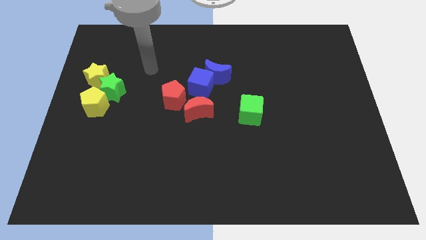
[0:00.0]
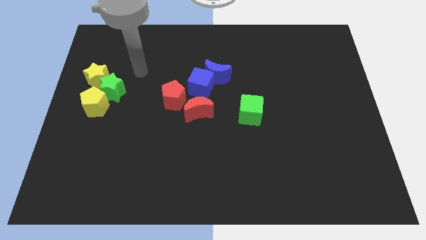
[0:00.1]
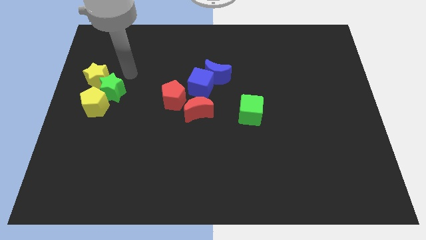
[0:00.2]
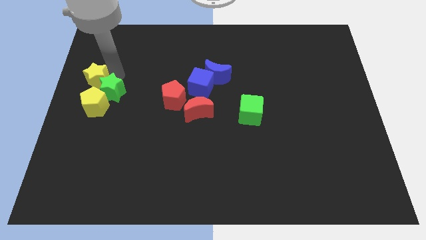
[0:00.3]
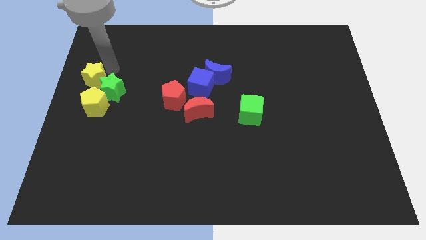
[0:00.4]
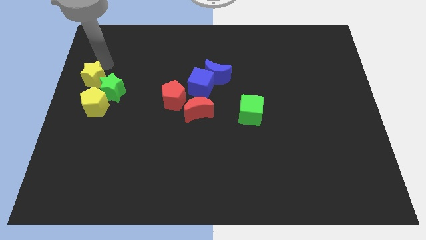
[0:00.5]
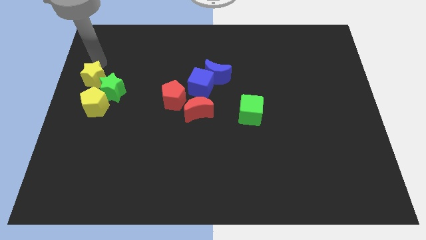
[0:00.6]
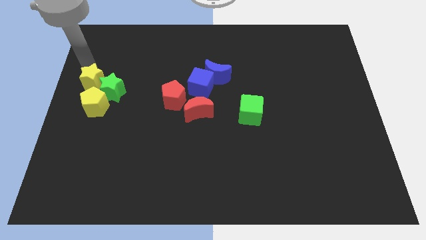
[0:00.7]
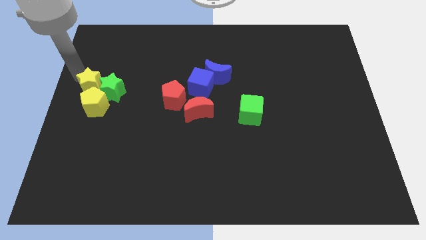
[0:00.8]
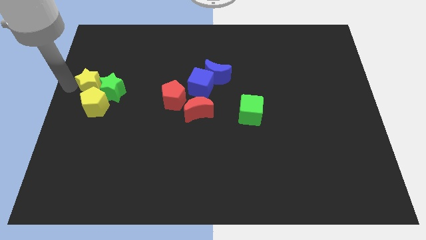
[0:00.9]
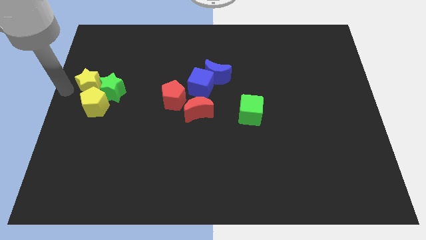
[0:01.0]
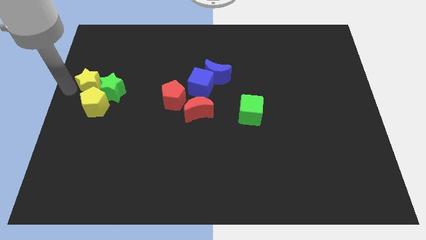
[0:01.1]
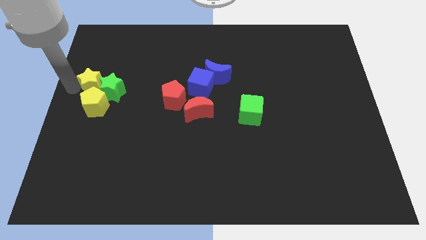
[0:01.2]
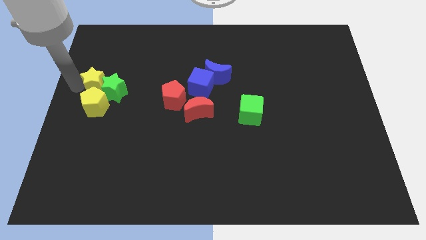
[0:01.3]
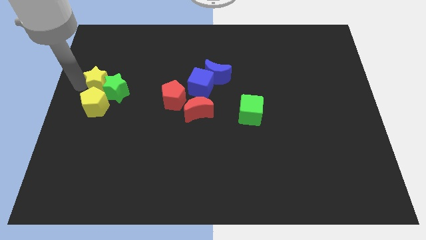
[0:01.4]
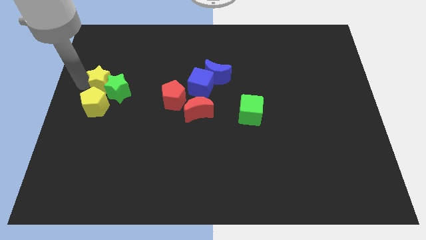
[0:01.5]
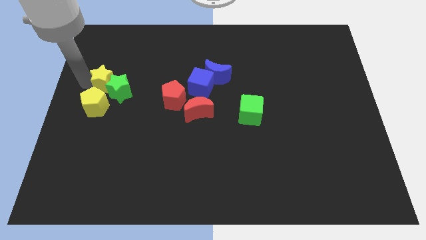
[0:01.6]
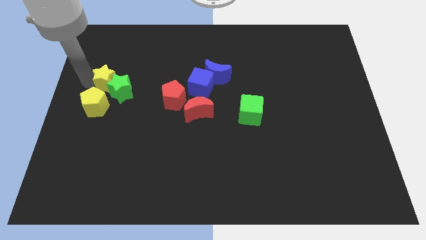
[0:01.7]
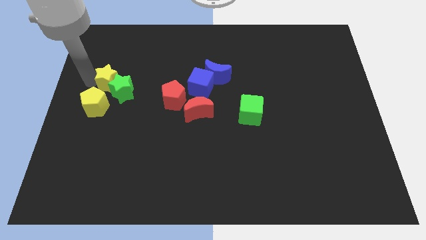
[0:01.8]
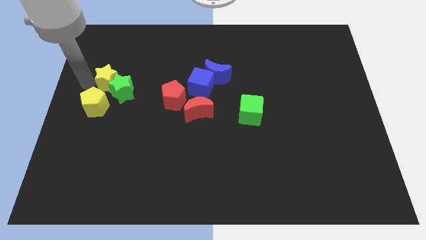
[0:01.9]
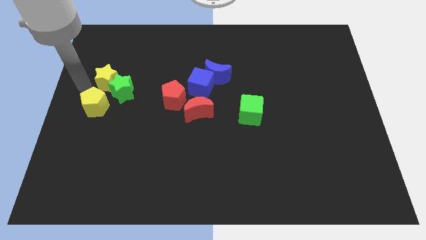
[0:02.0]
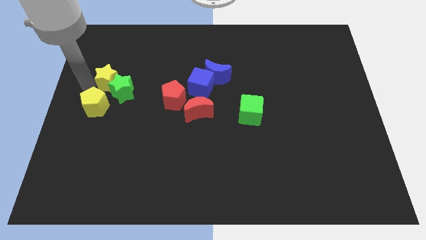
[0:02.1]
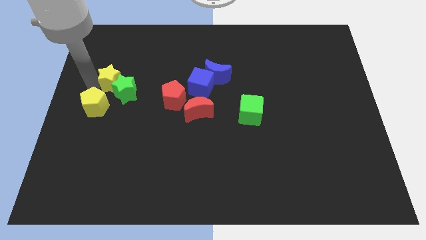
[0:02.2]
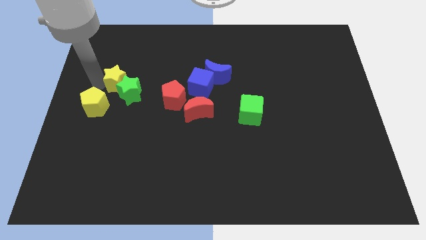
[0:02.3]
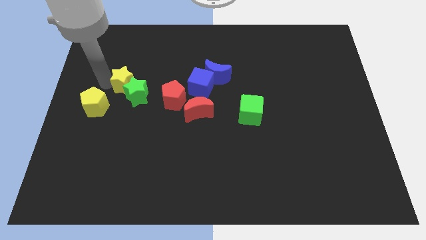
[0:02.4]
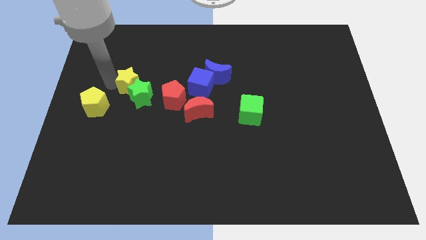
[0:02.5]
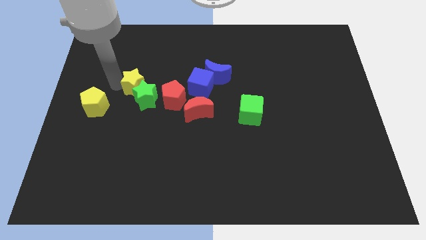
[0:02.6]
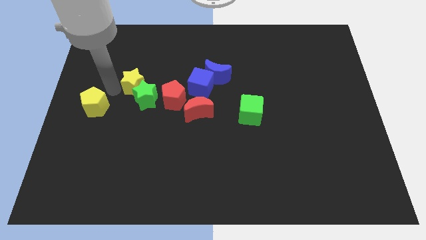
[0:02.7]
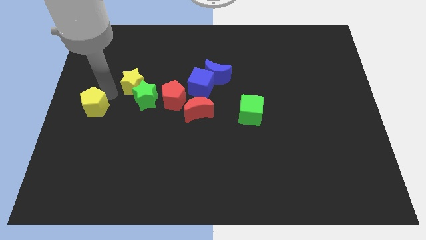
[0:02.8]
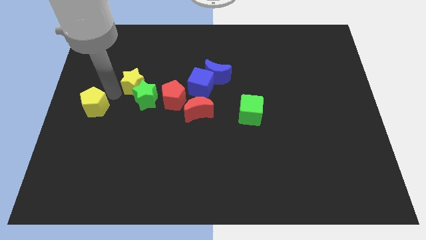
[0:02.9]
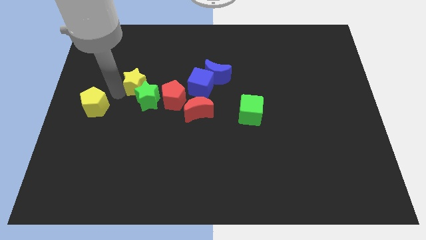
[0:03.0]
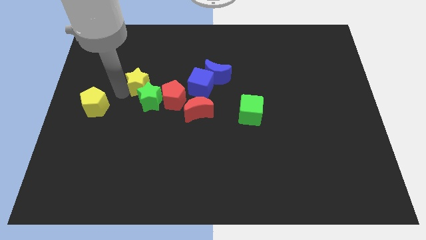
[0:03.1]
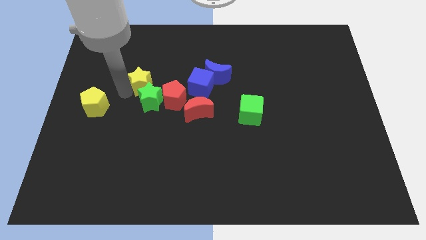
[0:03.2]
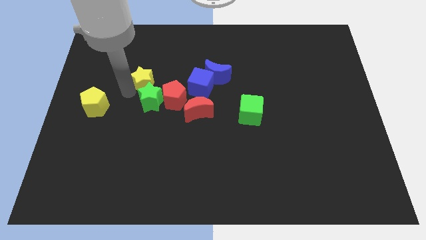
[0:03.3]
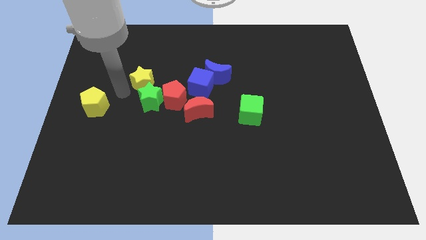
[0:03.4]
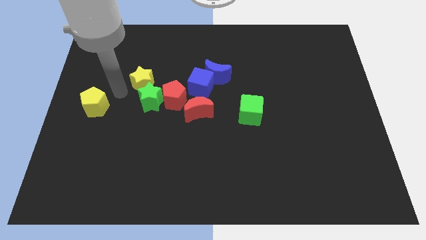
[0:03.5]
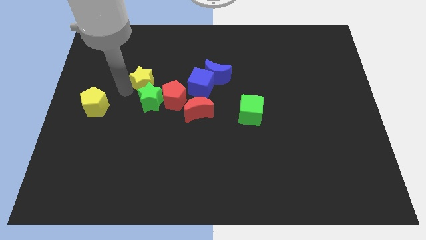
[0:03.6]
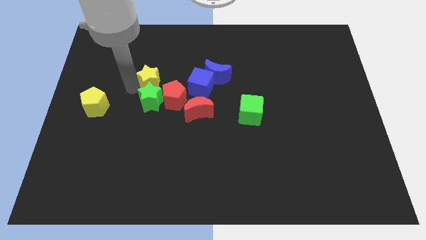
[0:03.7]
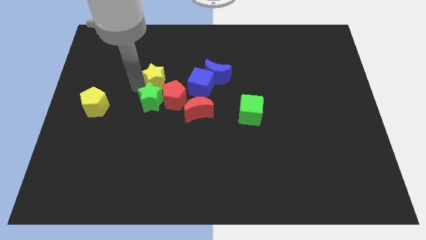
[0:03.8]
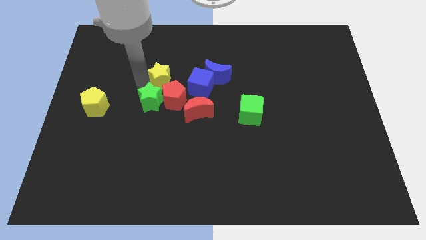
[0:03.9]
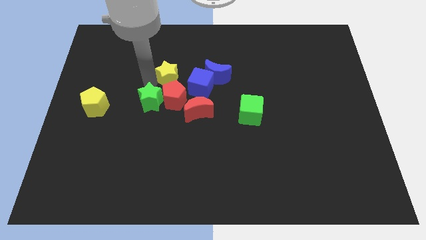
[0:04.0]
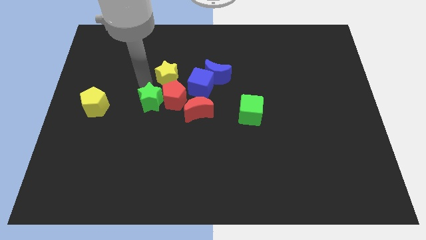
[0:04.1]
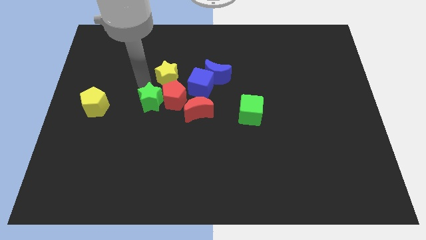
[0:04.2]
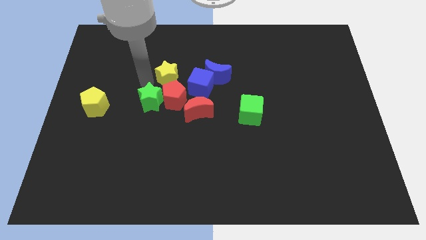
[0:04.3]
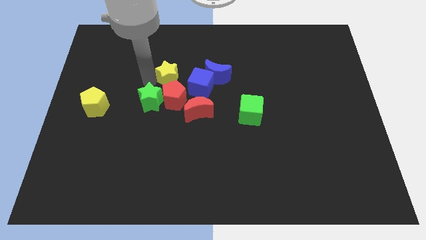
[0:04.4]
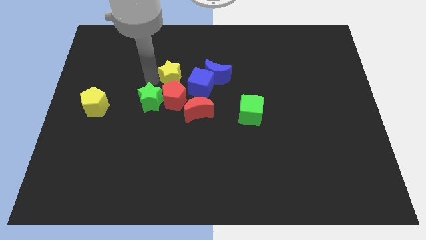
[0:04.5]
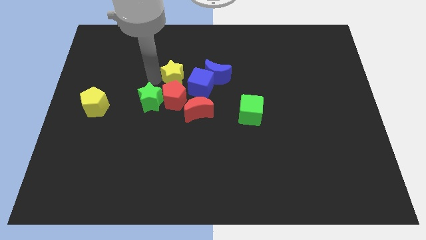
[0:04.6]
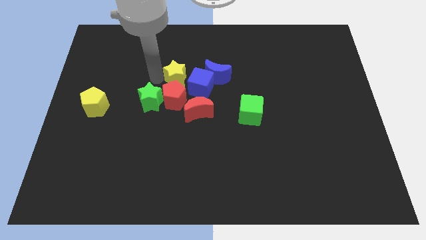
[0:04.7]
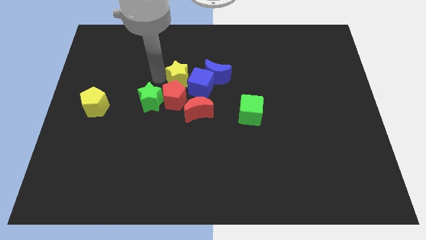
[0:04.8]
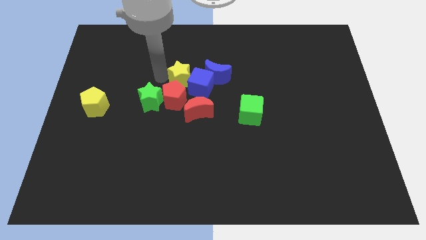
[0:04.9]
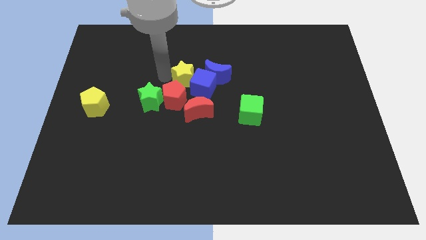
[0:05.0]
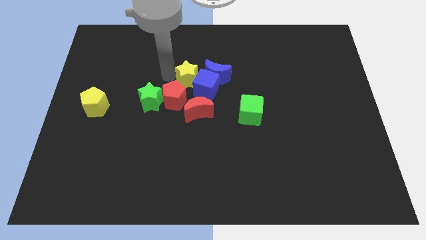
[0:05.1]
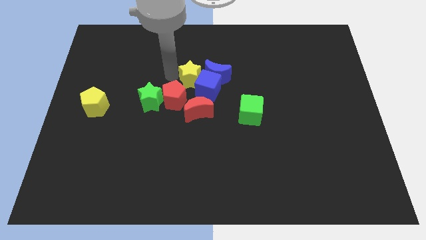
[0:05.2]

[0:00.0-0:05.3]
put the yellow star to the blue moon

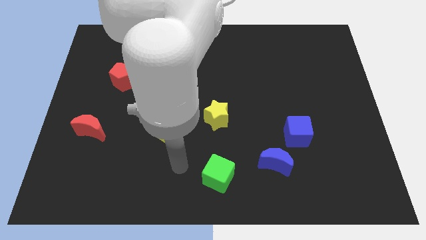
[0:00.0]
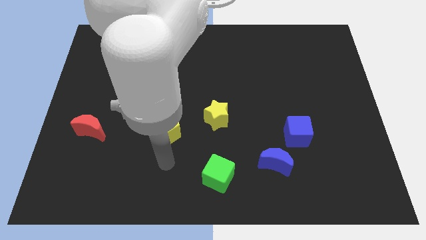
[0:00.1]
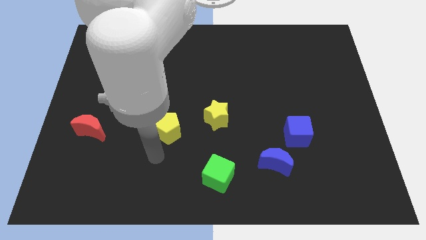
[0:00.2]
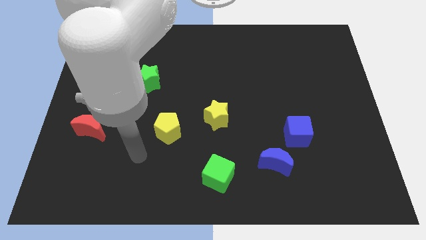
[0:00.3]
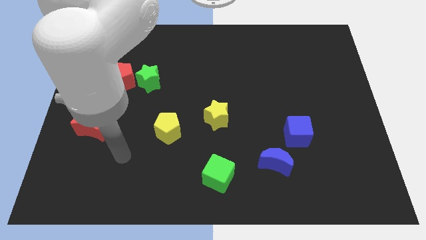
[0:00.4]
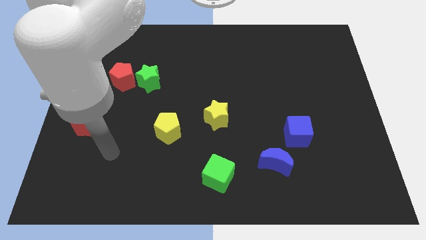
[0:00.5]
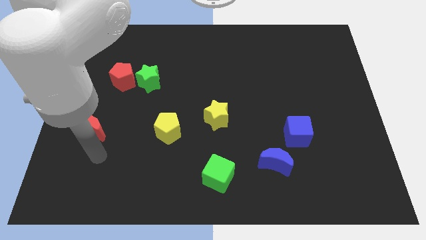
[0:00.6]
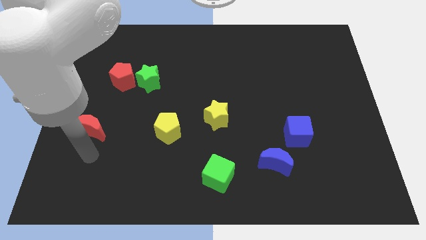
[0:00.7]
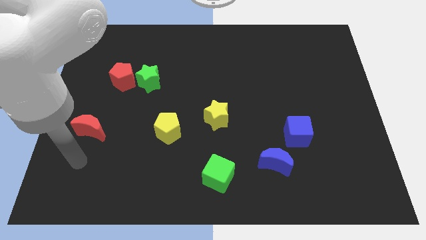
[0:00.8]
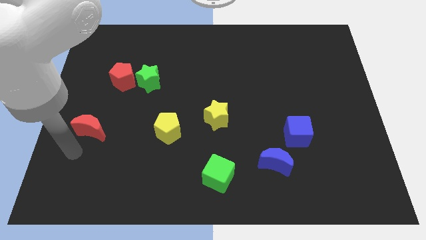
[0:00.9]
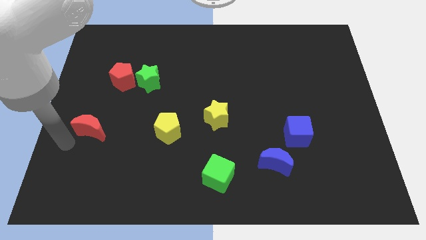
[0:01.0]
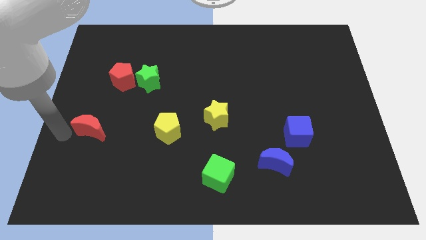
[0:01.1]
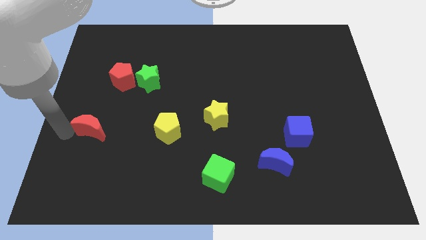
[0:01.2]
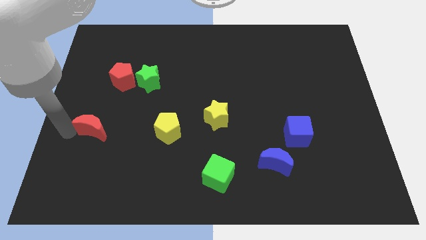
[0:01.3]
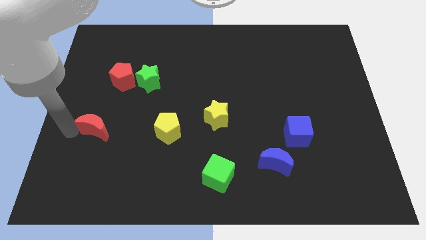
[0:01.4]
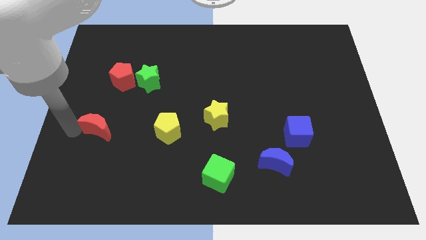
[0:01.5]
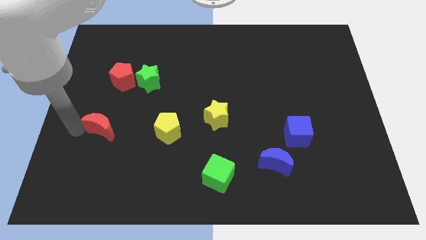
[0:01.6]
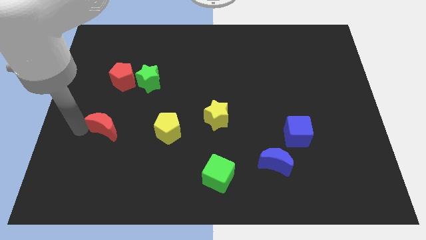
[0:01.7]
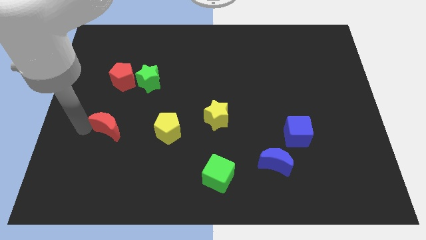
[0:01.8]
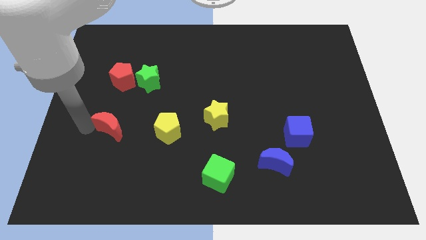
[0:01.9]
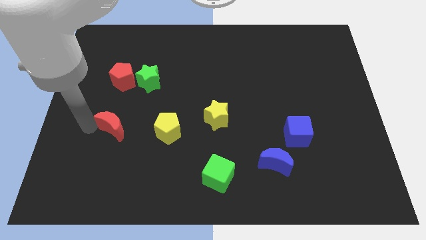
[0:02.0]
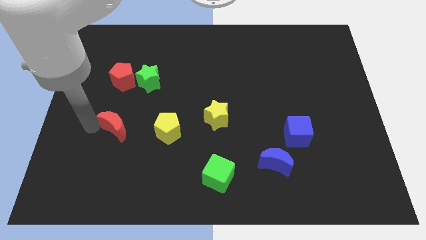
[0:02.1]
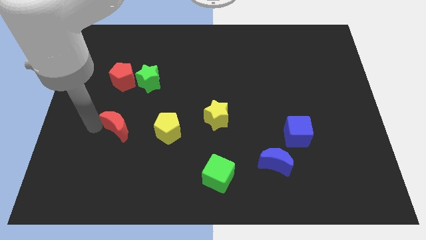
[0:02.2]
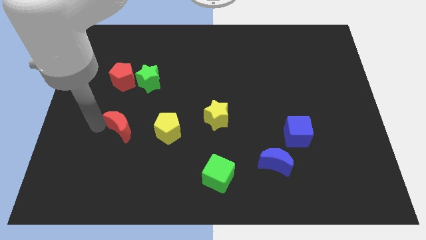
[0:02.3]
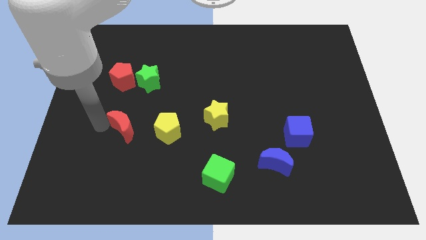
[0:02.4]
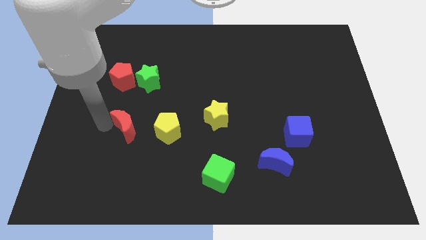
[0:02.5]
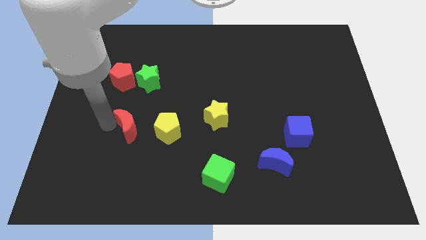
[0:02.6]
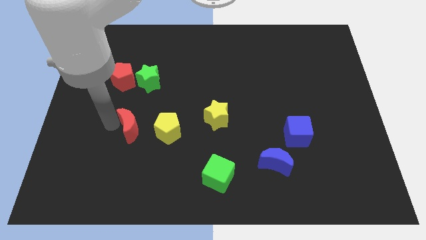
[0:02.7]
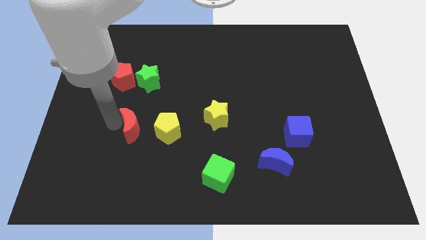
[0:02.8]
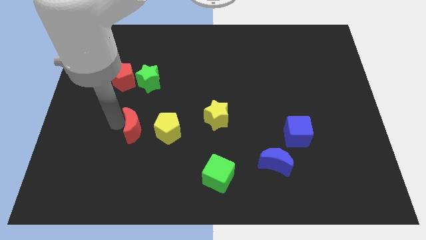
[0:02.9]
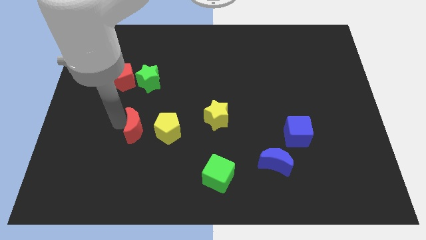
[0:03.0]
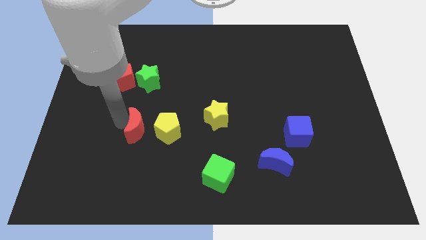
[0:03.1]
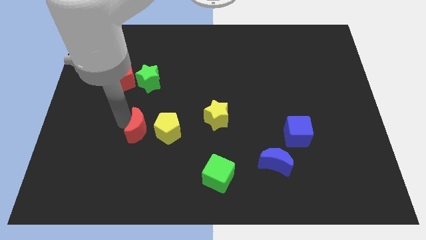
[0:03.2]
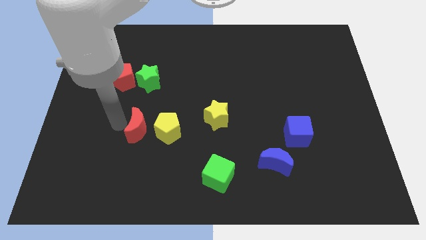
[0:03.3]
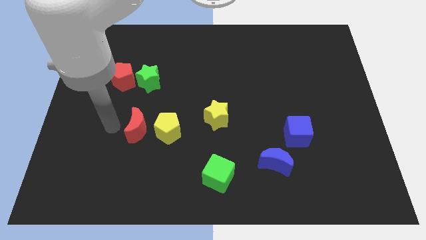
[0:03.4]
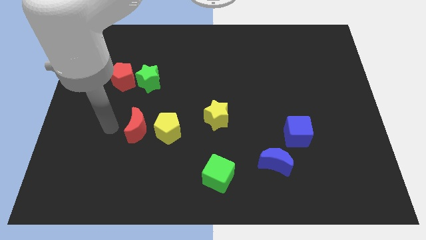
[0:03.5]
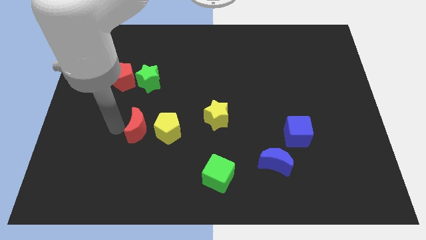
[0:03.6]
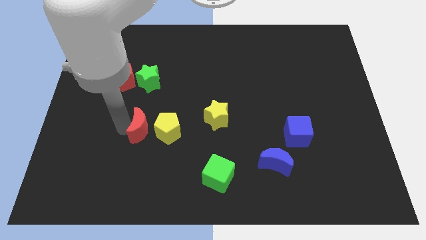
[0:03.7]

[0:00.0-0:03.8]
move the red moon towards the yellow pentagon
